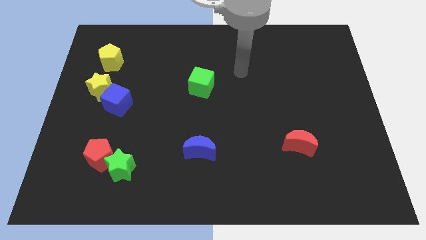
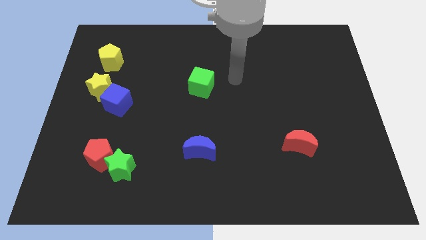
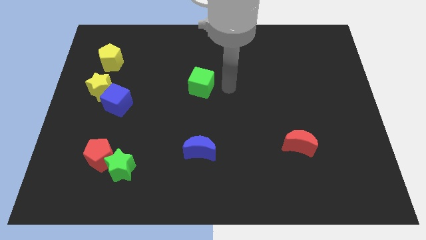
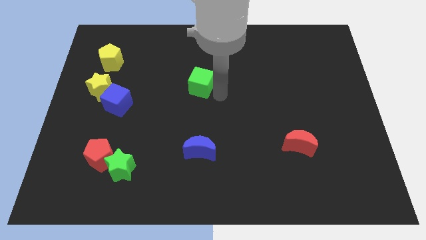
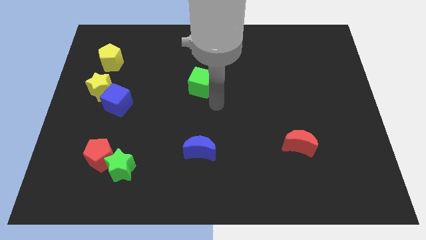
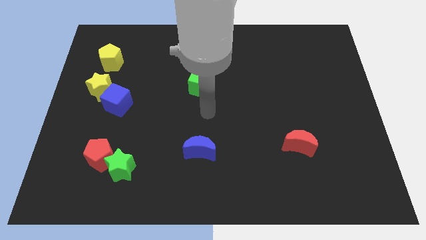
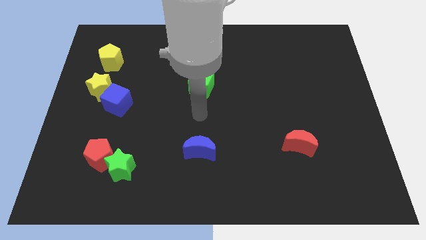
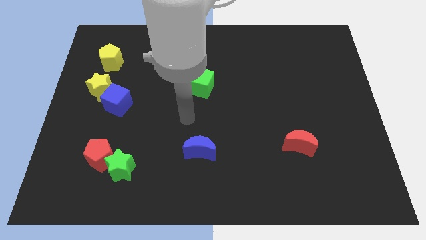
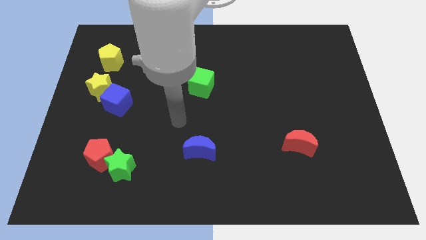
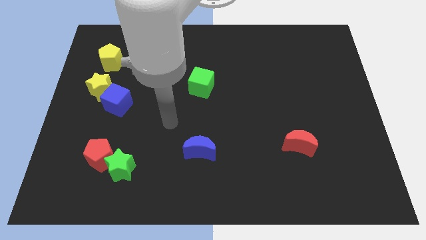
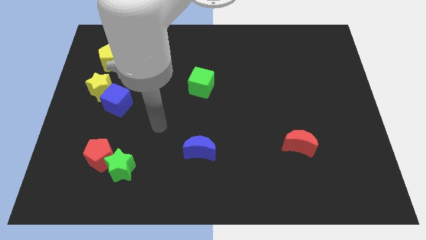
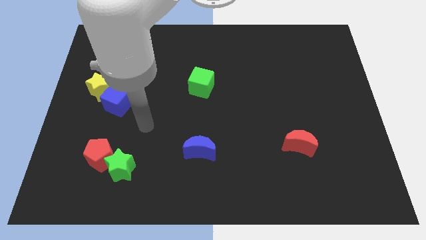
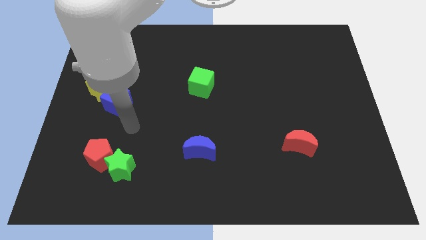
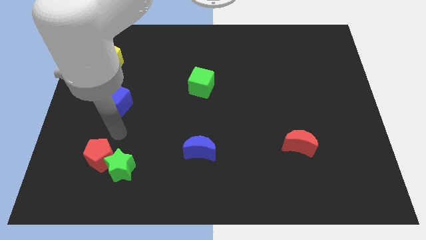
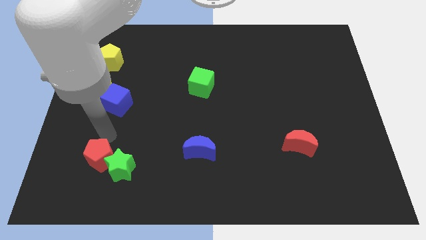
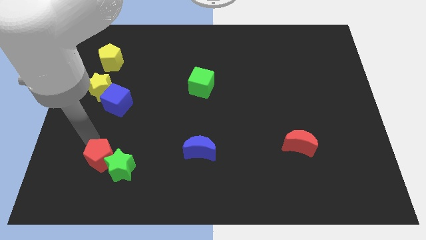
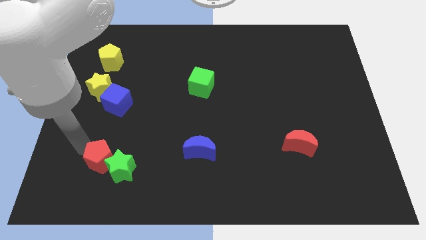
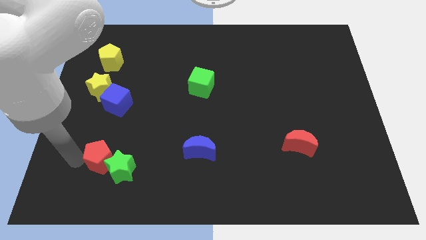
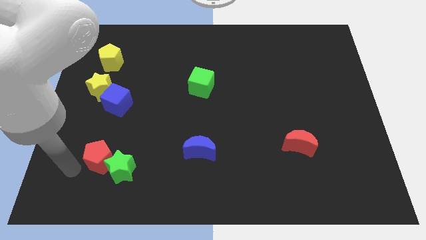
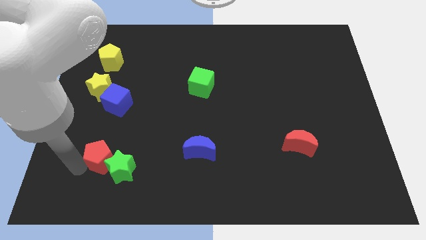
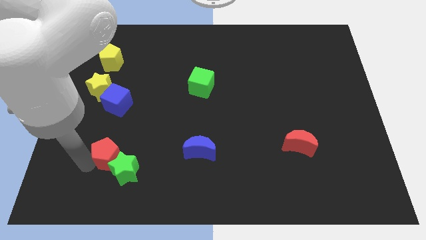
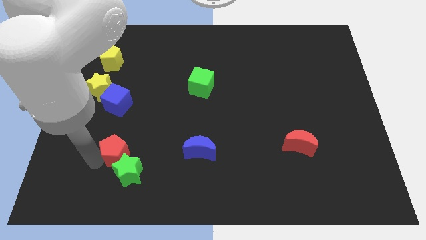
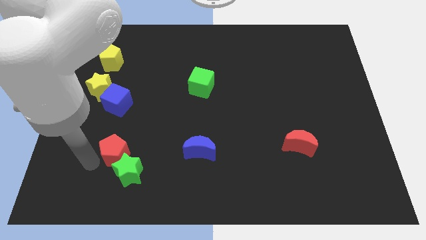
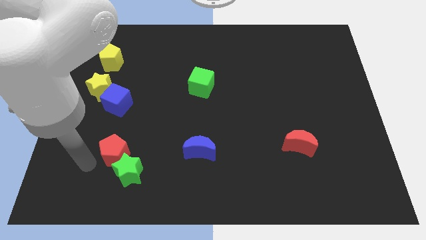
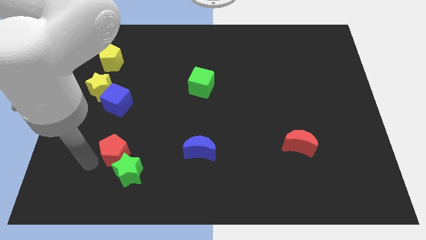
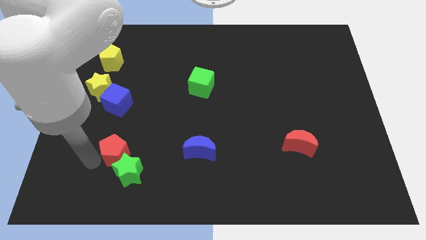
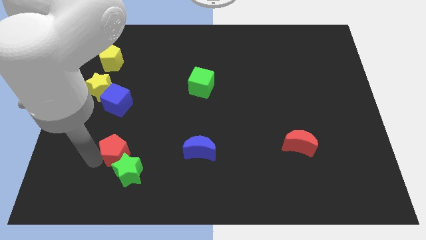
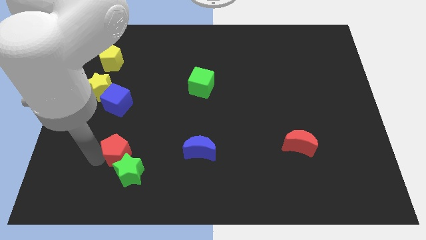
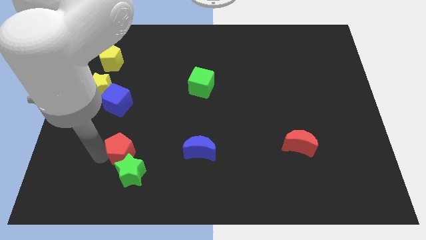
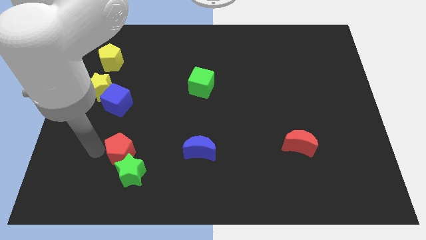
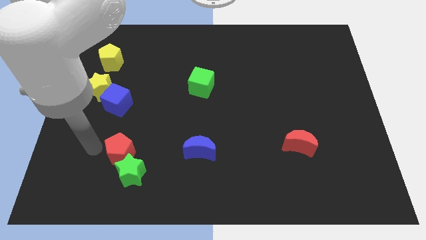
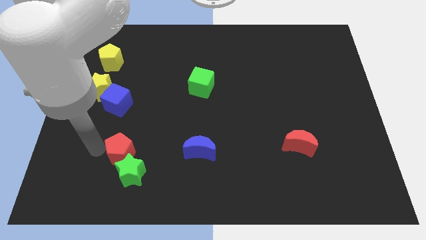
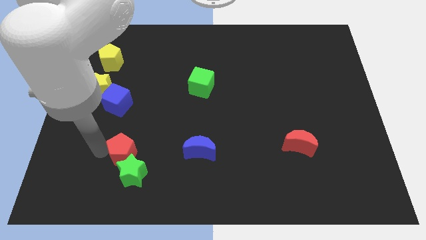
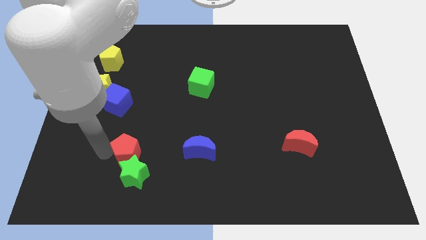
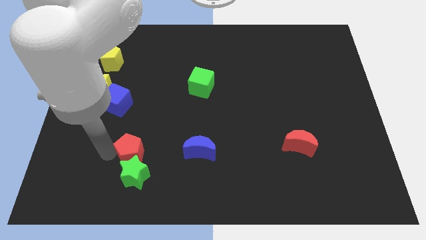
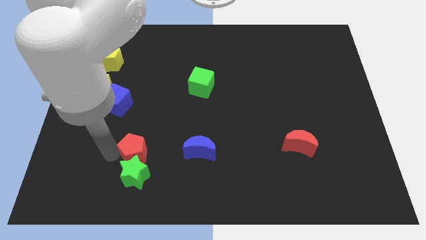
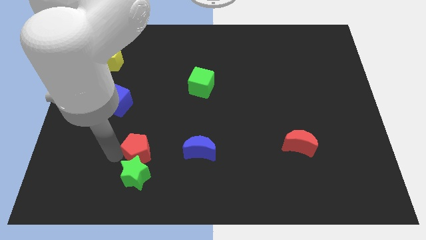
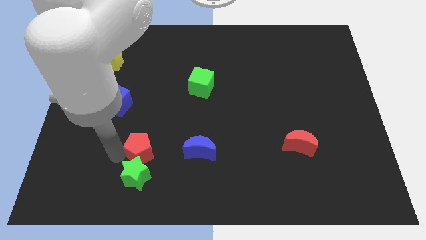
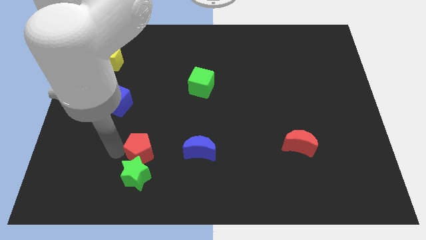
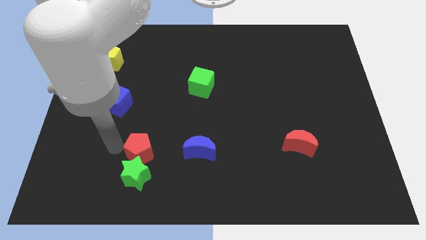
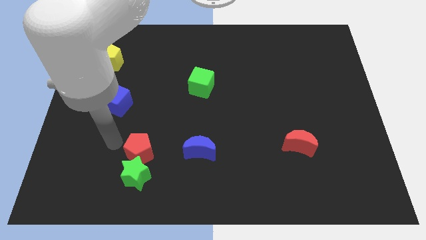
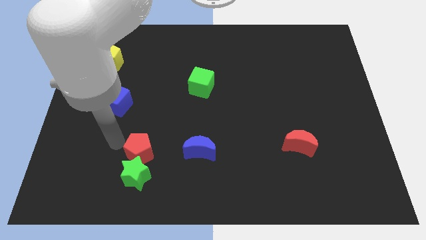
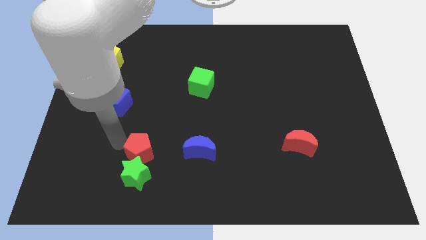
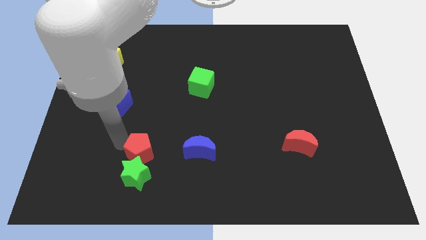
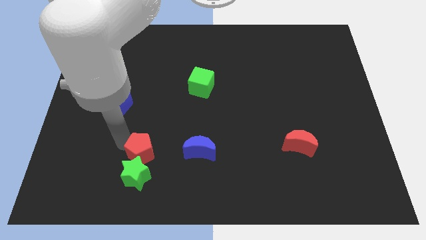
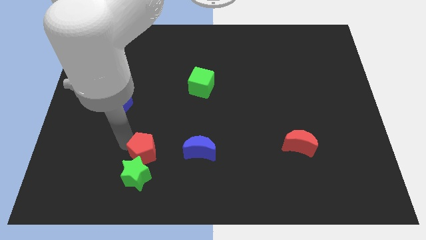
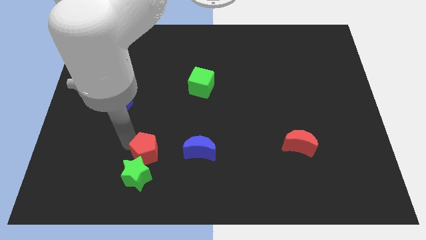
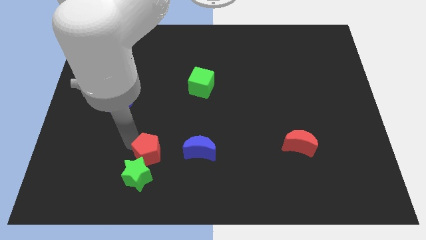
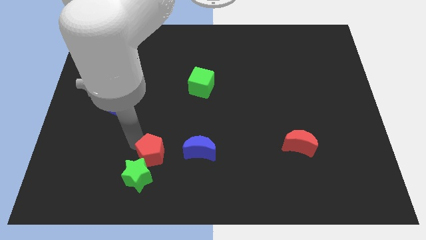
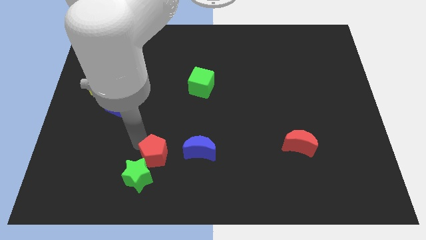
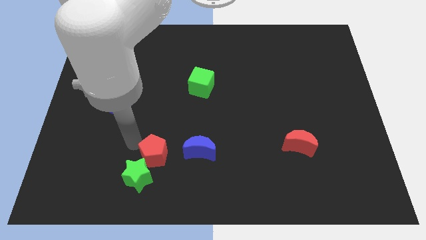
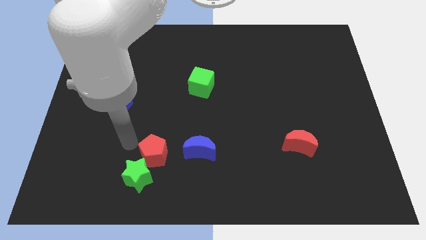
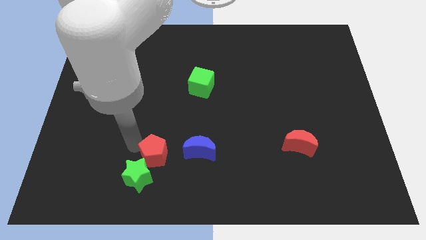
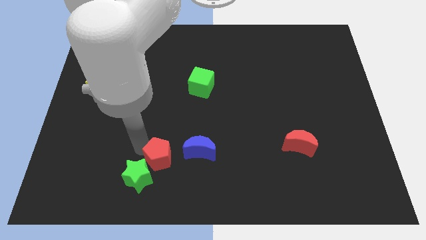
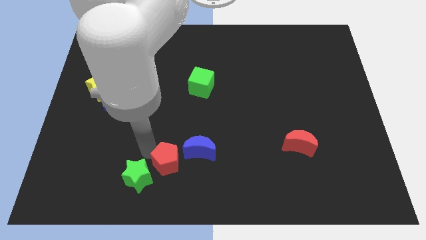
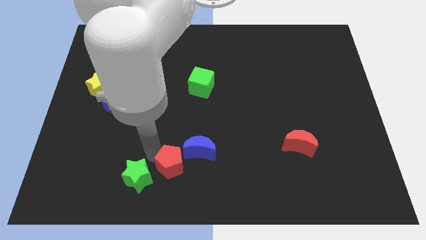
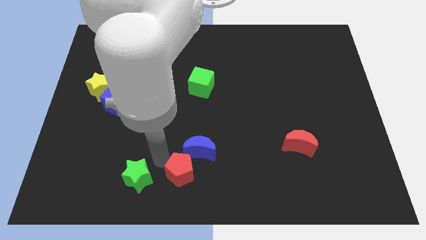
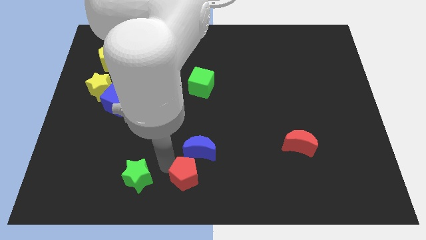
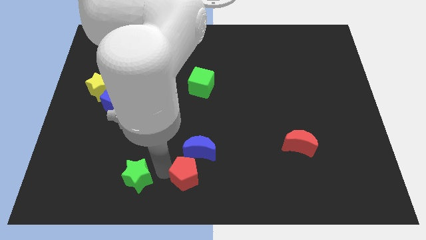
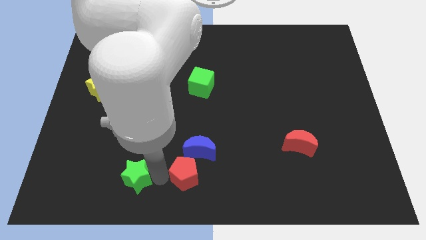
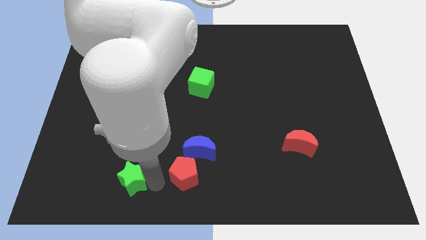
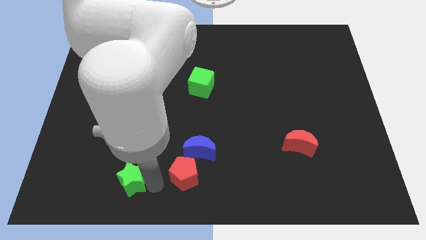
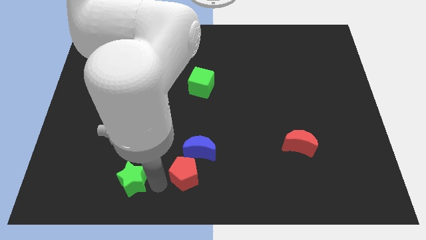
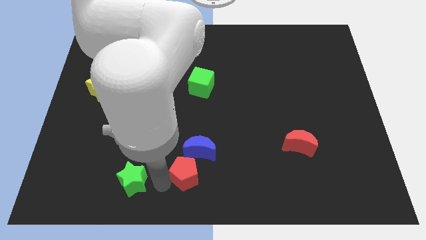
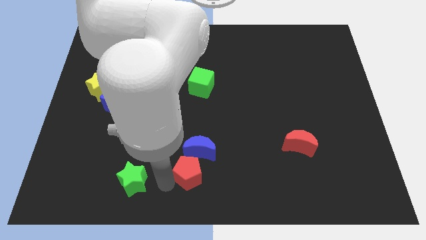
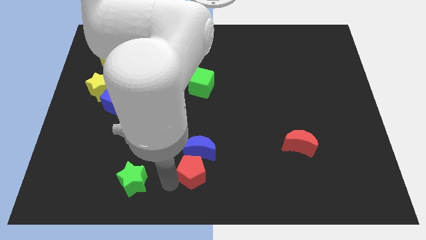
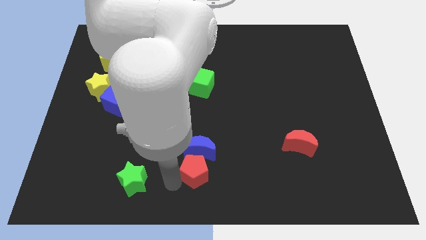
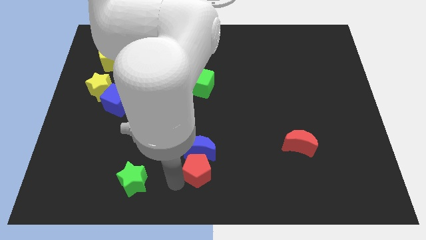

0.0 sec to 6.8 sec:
move the red pentagon right

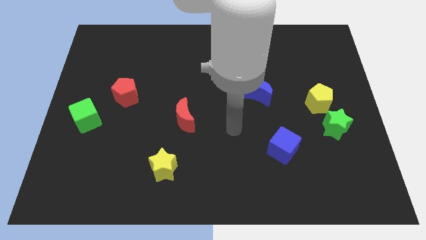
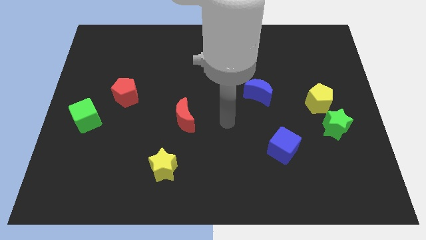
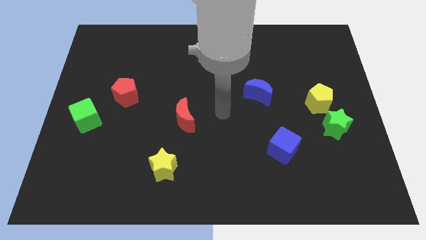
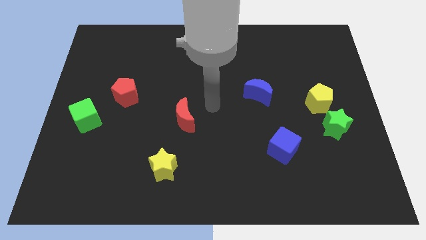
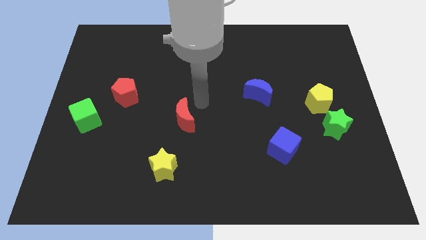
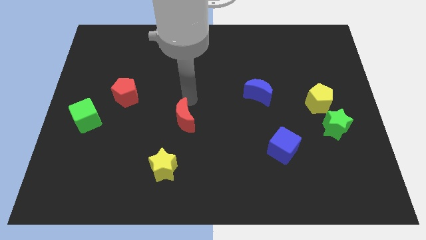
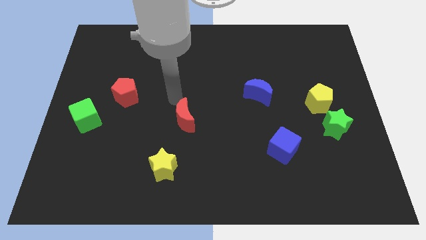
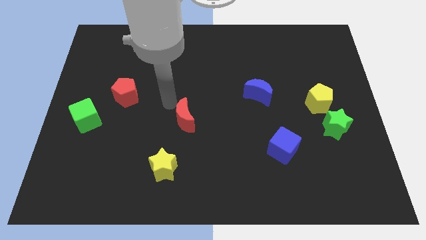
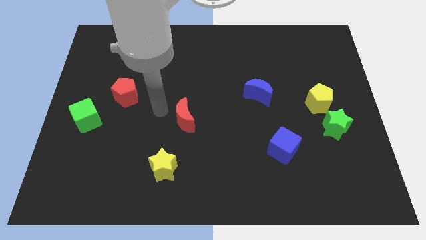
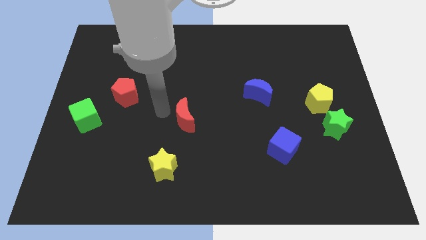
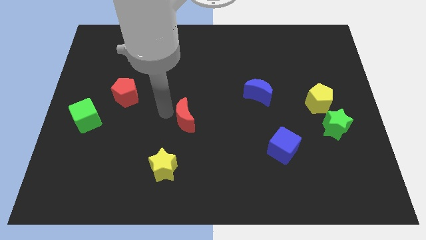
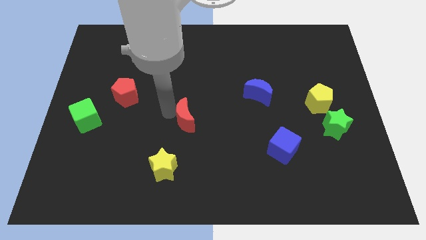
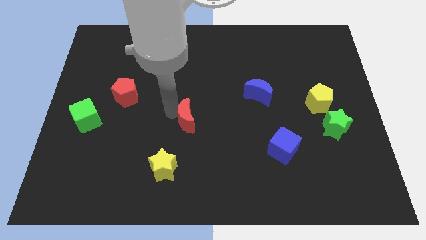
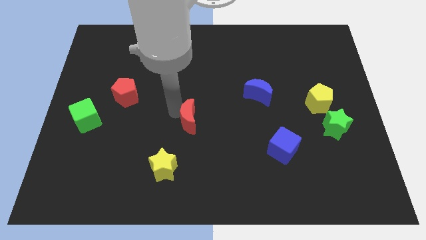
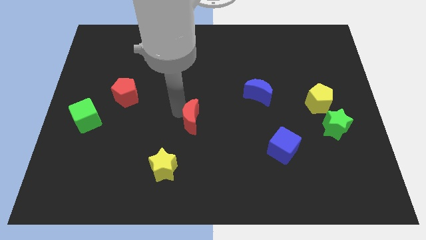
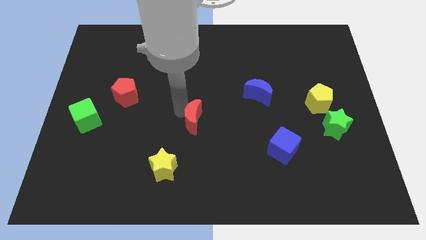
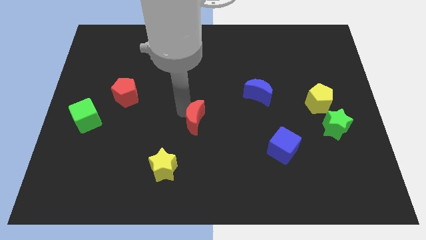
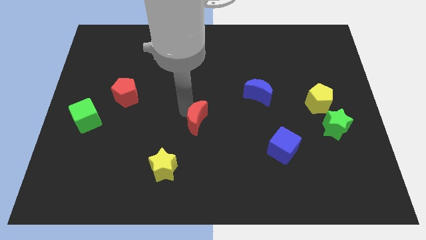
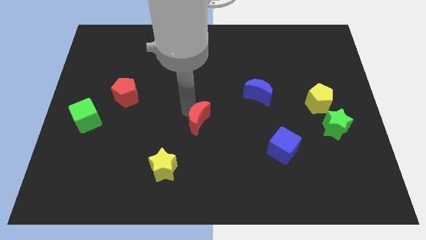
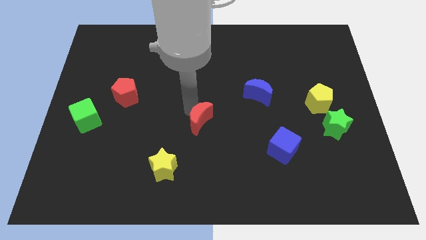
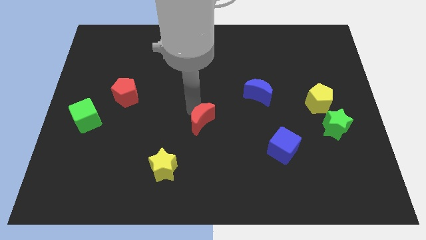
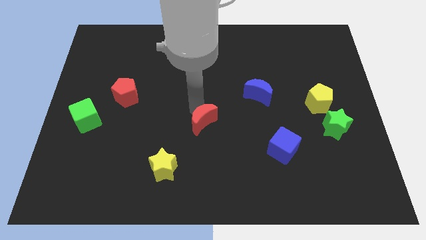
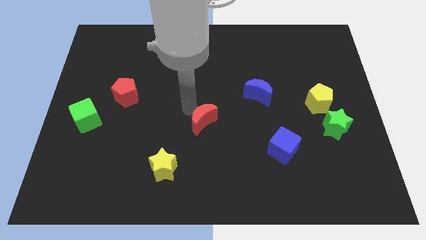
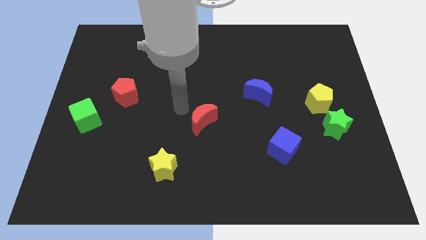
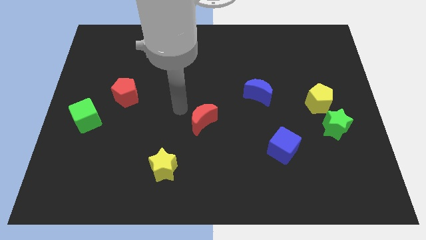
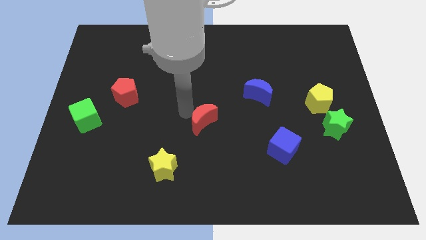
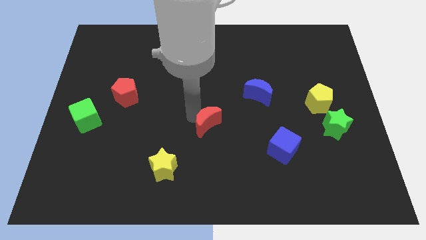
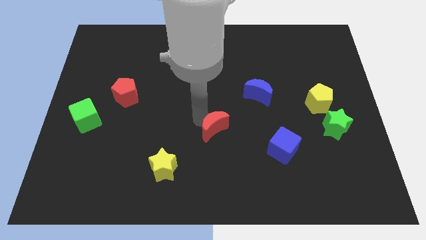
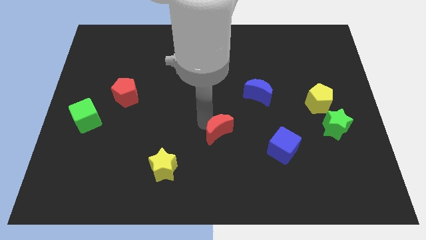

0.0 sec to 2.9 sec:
push the red moon to the right slightly
